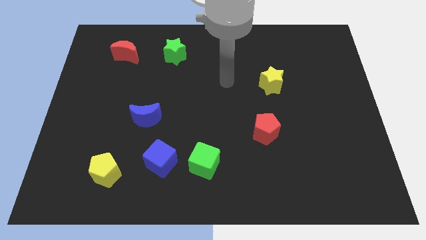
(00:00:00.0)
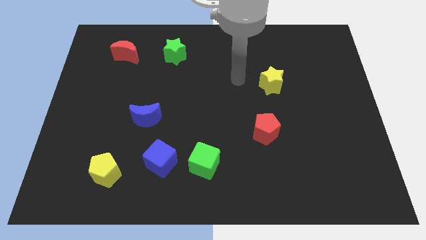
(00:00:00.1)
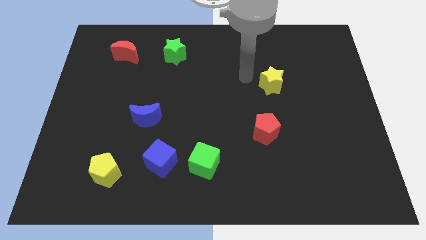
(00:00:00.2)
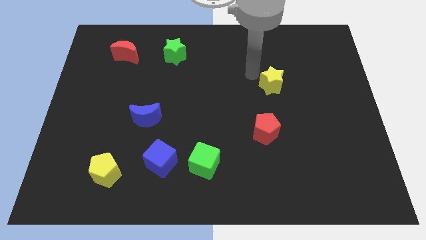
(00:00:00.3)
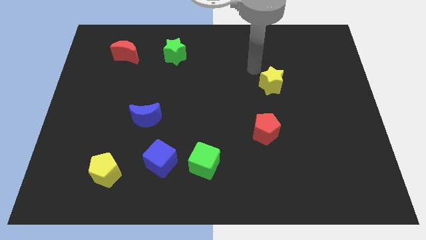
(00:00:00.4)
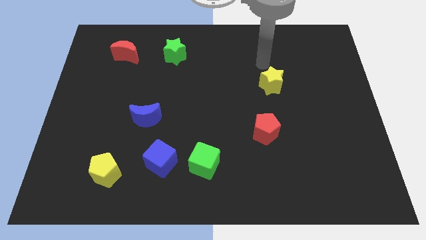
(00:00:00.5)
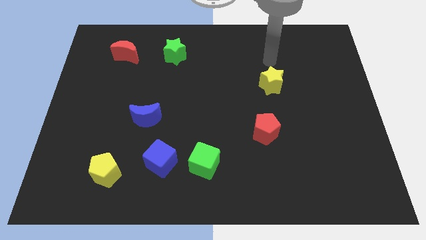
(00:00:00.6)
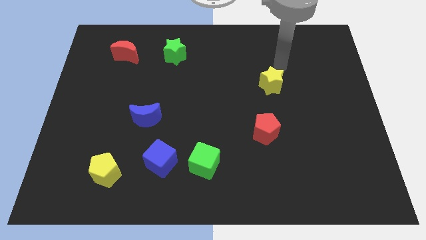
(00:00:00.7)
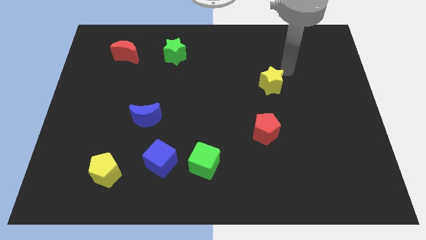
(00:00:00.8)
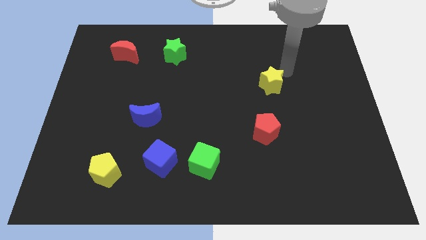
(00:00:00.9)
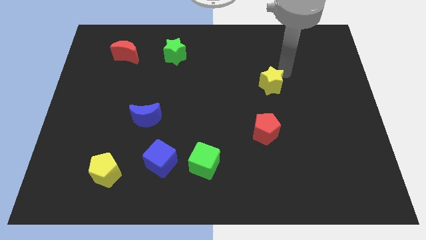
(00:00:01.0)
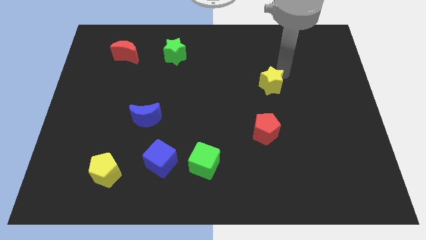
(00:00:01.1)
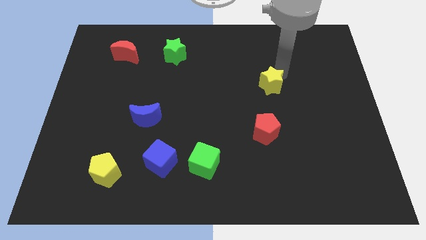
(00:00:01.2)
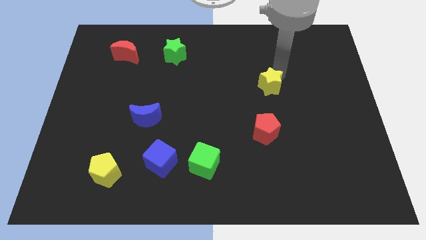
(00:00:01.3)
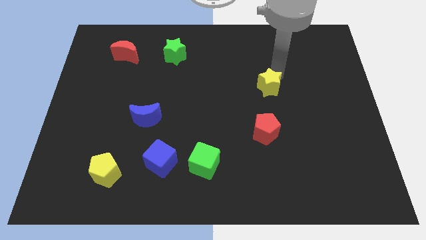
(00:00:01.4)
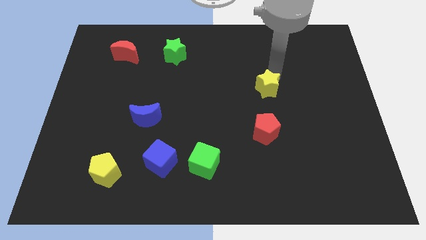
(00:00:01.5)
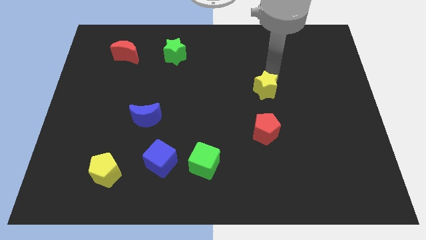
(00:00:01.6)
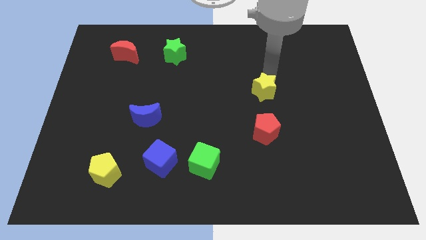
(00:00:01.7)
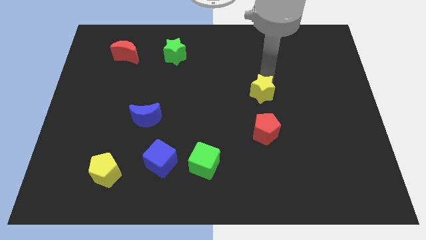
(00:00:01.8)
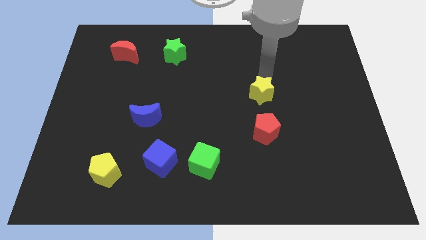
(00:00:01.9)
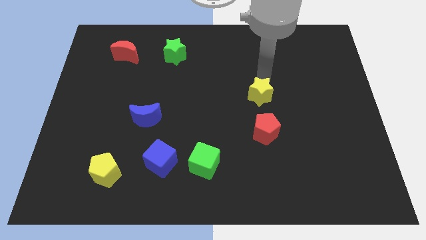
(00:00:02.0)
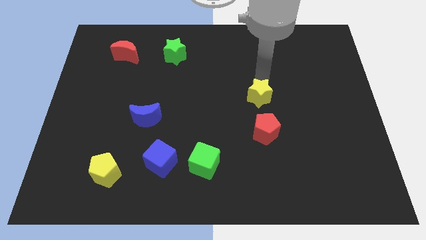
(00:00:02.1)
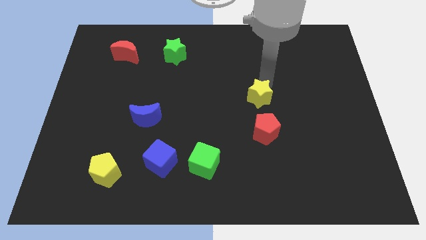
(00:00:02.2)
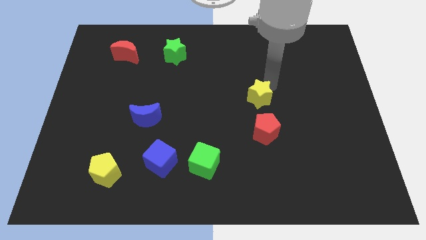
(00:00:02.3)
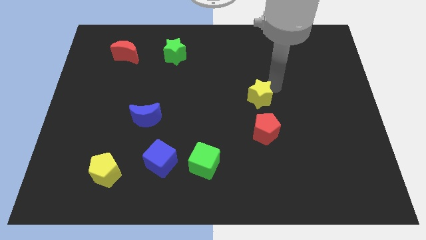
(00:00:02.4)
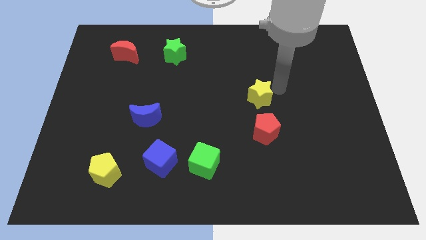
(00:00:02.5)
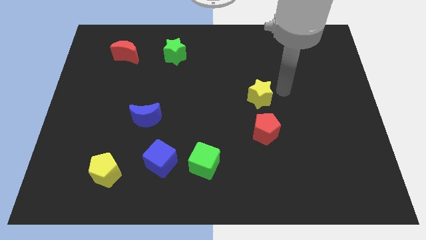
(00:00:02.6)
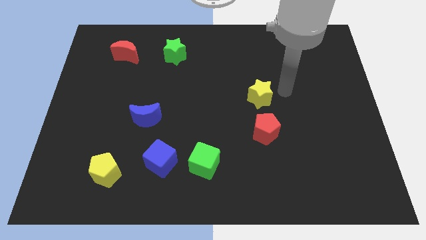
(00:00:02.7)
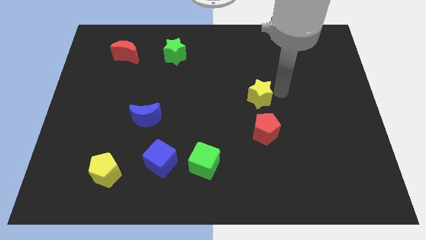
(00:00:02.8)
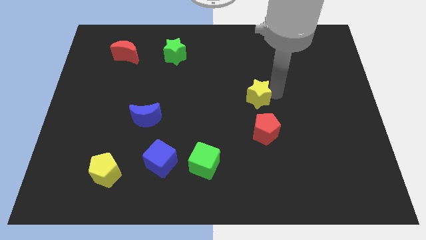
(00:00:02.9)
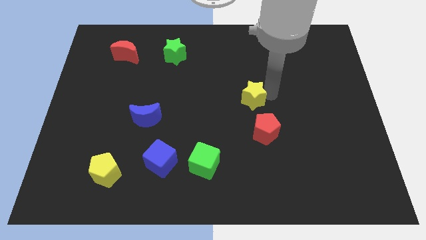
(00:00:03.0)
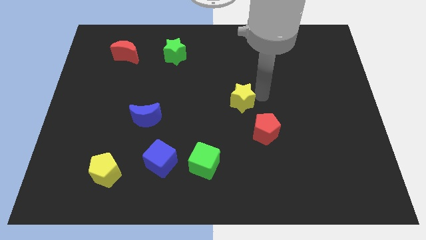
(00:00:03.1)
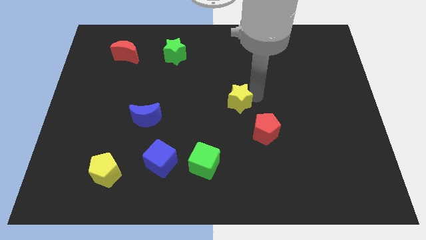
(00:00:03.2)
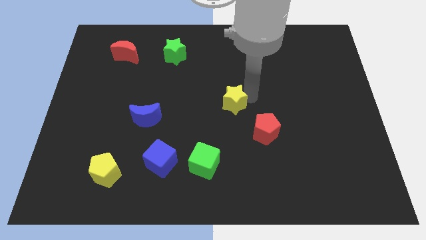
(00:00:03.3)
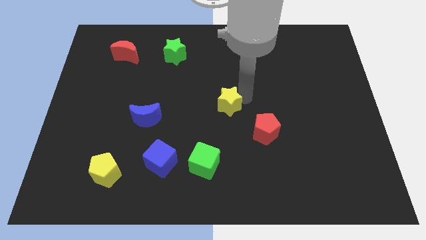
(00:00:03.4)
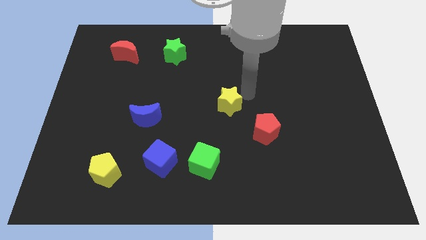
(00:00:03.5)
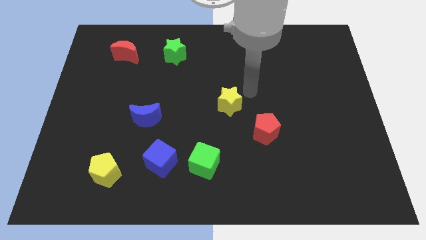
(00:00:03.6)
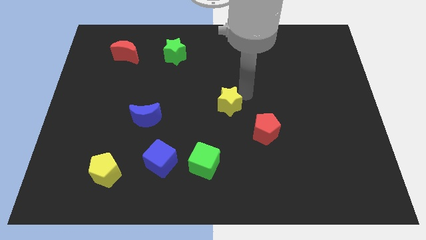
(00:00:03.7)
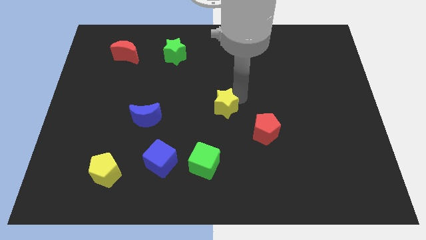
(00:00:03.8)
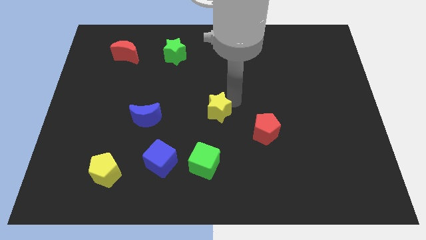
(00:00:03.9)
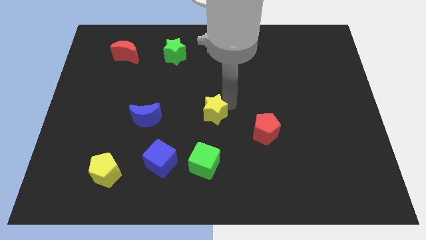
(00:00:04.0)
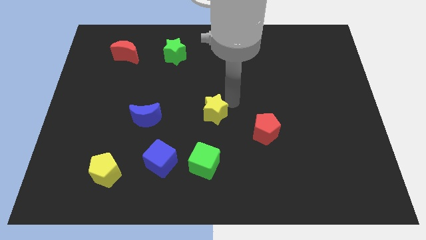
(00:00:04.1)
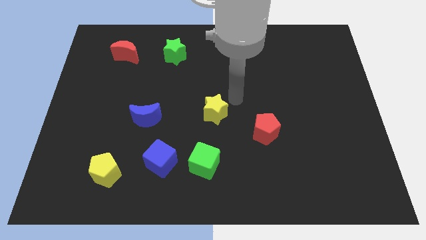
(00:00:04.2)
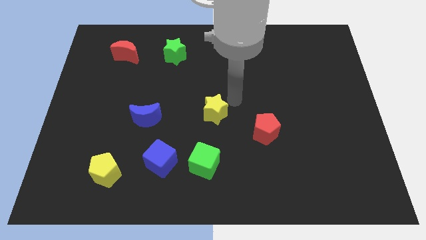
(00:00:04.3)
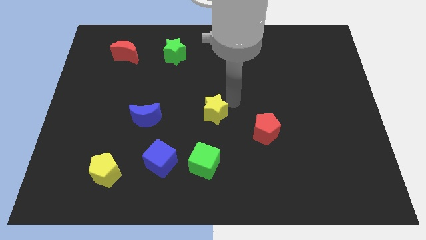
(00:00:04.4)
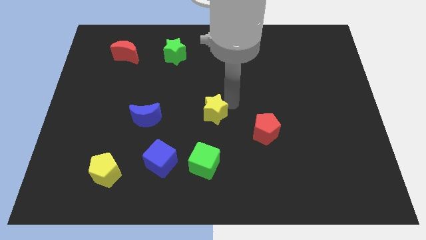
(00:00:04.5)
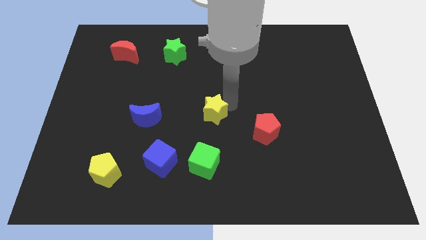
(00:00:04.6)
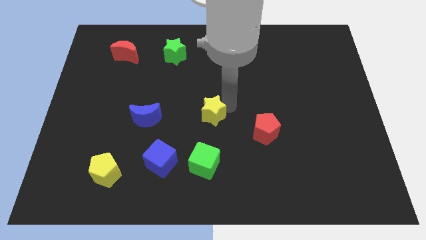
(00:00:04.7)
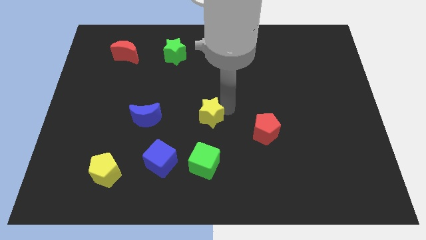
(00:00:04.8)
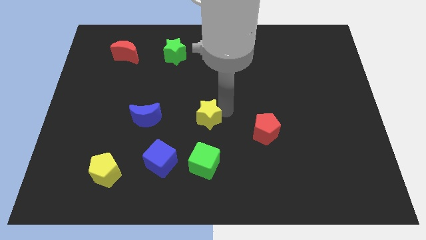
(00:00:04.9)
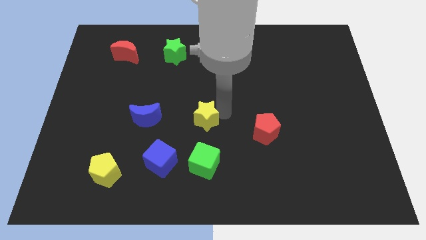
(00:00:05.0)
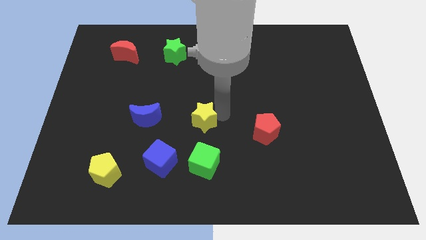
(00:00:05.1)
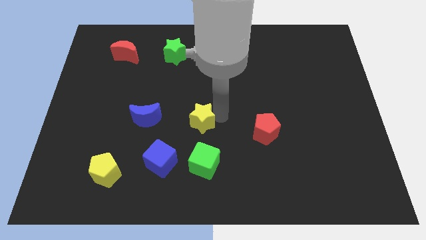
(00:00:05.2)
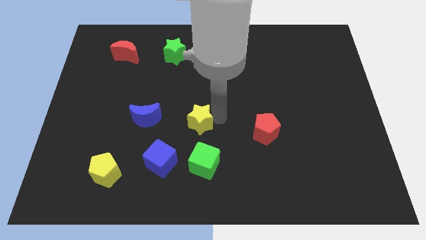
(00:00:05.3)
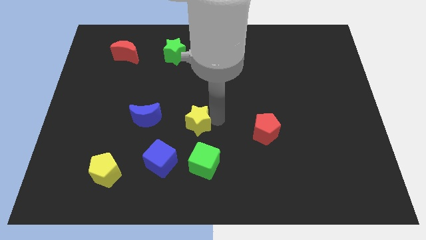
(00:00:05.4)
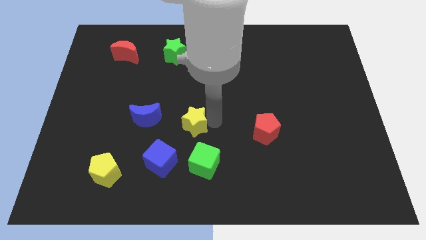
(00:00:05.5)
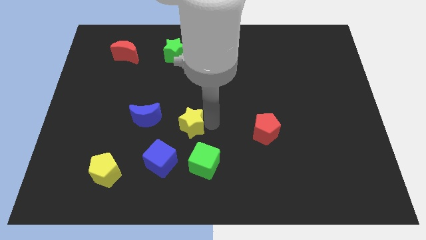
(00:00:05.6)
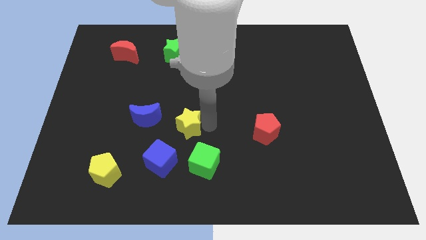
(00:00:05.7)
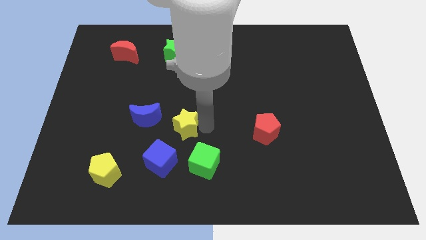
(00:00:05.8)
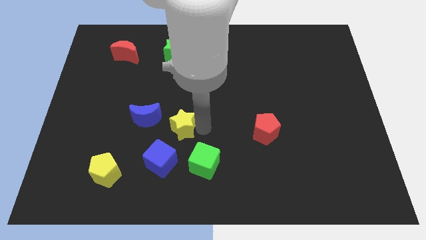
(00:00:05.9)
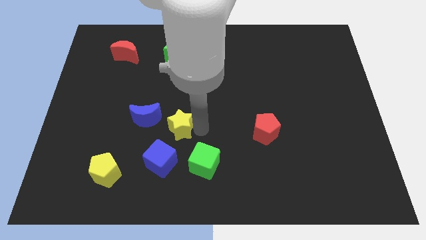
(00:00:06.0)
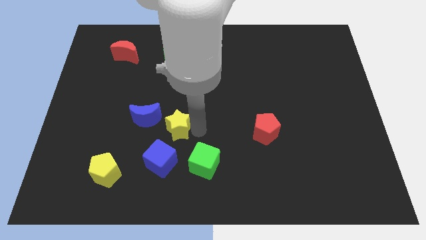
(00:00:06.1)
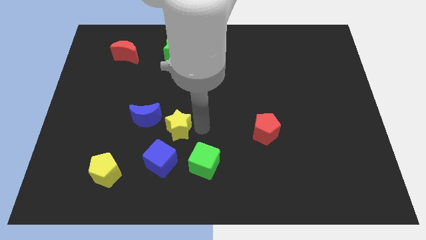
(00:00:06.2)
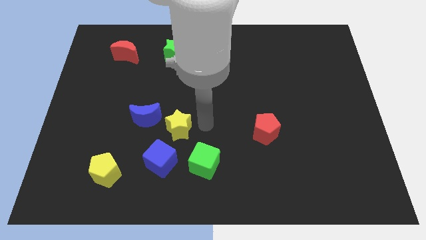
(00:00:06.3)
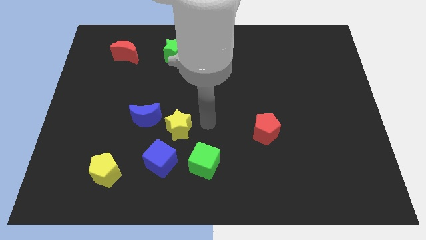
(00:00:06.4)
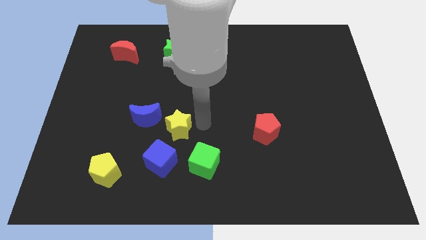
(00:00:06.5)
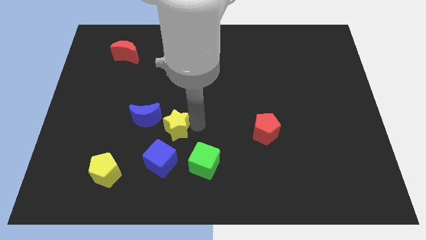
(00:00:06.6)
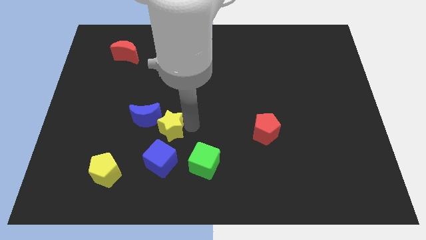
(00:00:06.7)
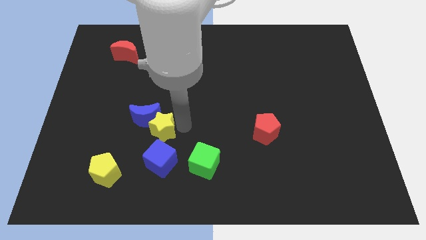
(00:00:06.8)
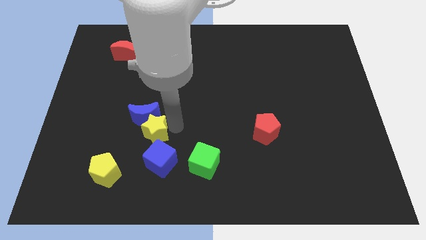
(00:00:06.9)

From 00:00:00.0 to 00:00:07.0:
put the yellow star to the top left of the blue cube

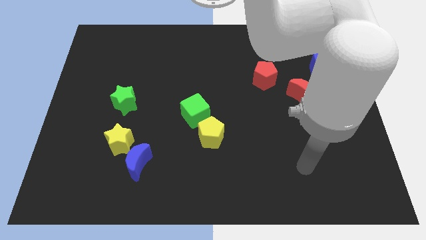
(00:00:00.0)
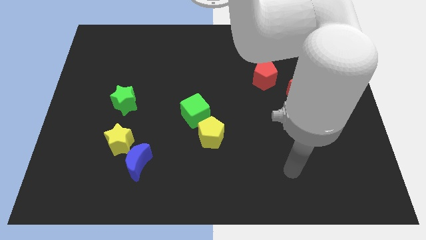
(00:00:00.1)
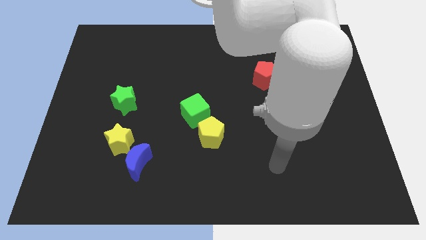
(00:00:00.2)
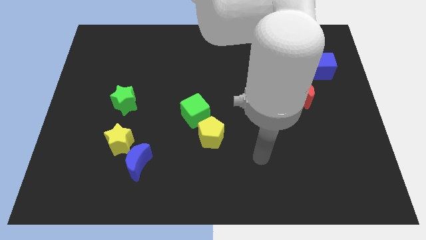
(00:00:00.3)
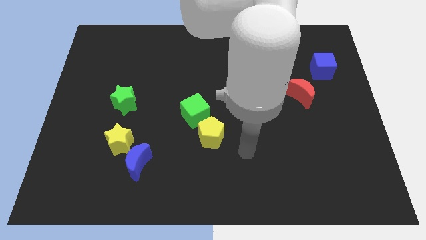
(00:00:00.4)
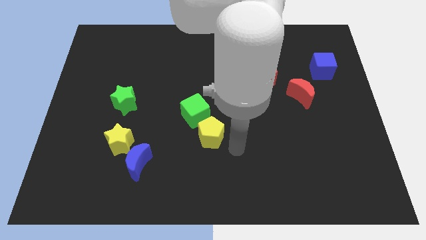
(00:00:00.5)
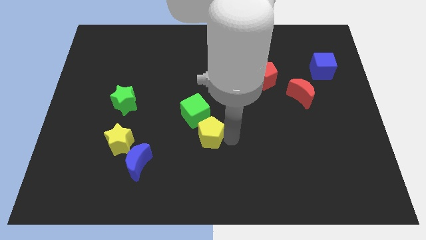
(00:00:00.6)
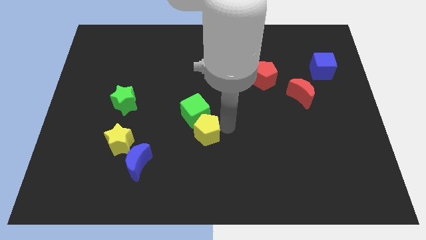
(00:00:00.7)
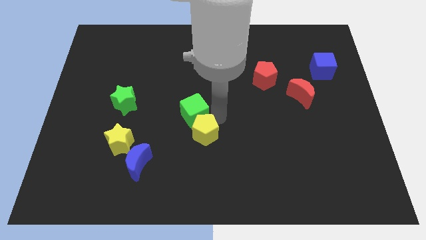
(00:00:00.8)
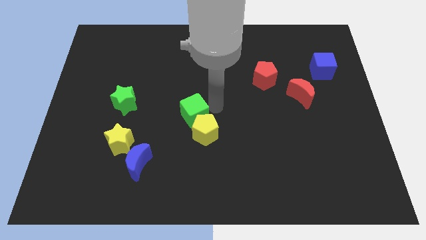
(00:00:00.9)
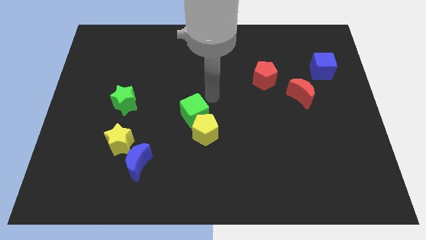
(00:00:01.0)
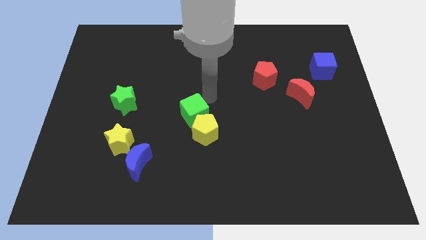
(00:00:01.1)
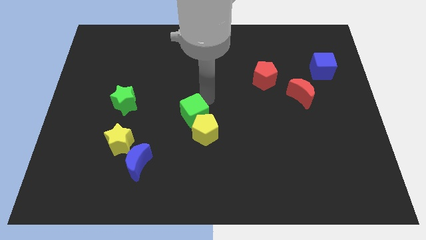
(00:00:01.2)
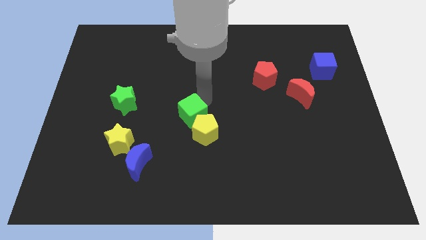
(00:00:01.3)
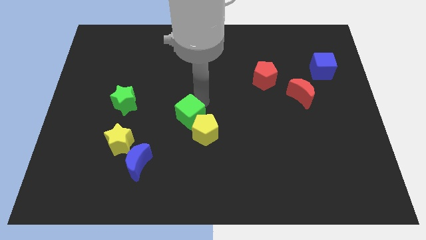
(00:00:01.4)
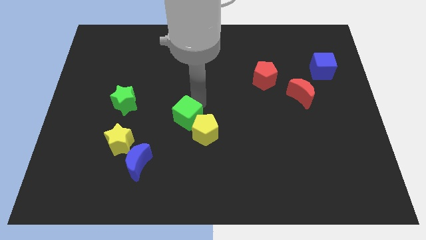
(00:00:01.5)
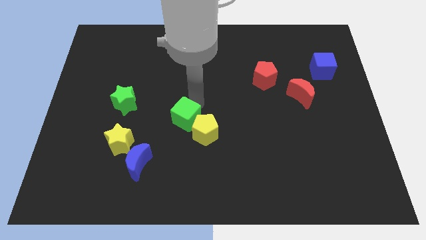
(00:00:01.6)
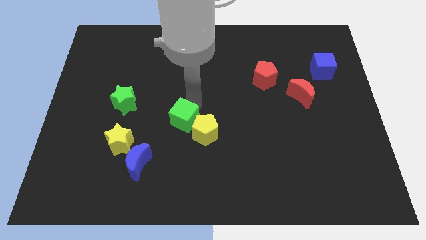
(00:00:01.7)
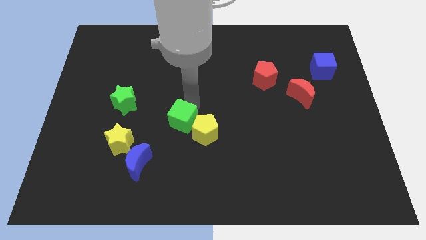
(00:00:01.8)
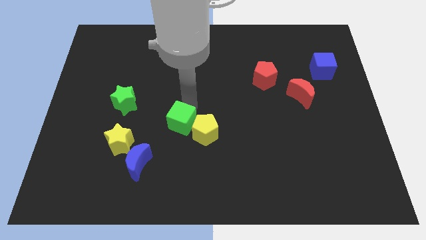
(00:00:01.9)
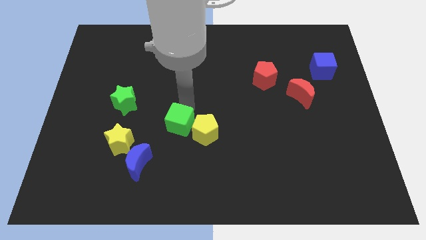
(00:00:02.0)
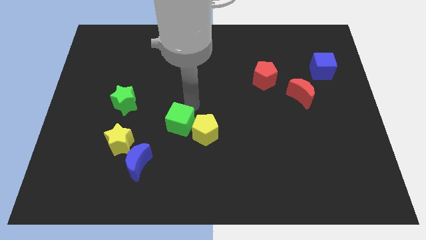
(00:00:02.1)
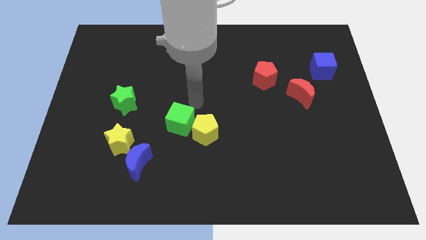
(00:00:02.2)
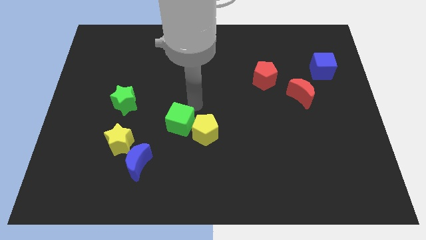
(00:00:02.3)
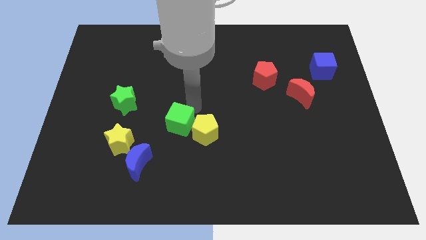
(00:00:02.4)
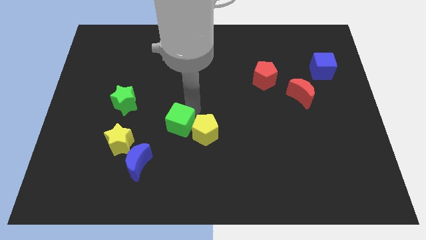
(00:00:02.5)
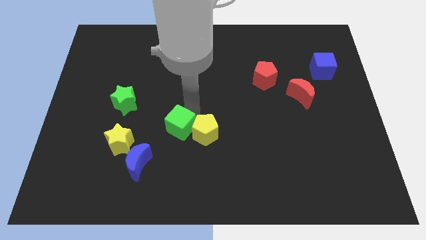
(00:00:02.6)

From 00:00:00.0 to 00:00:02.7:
slide the green cube to the top right side of the blue moon
